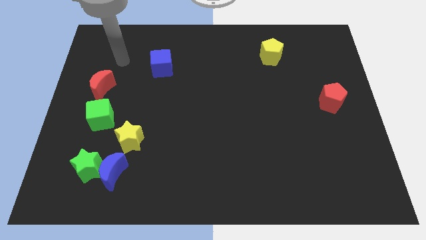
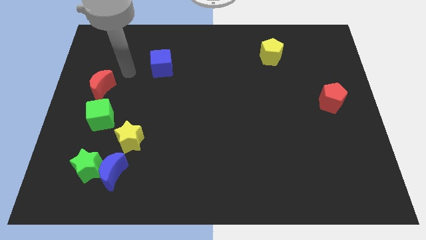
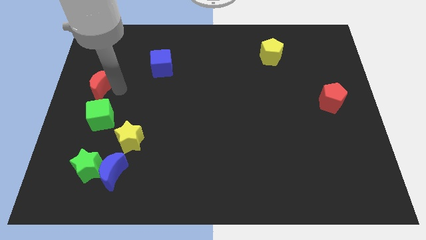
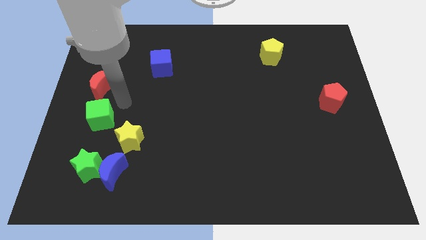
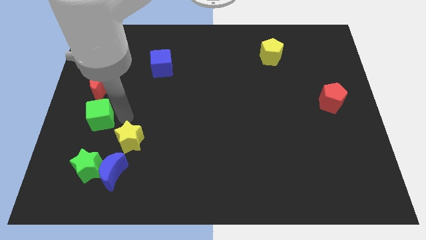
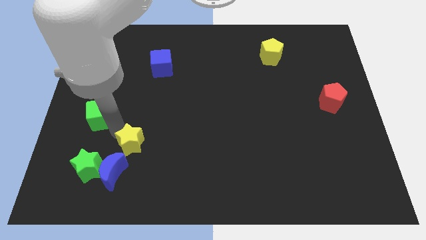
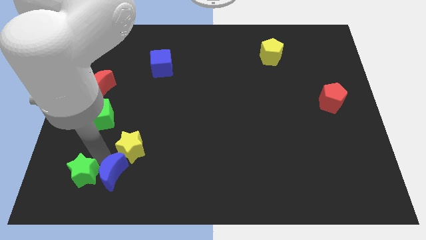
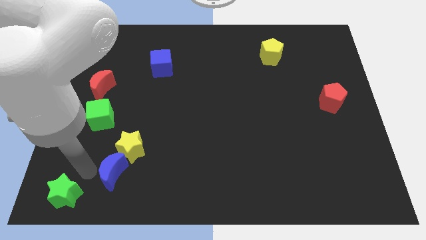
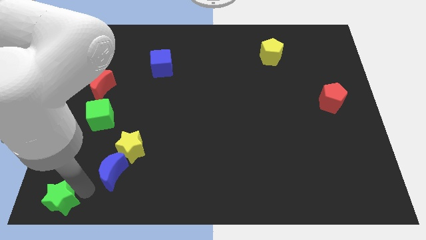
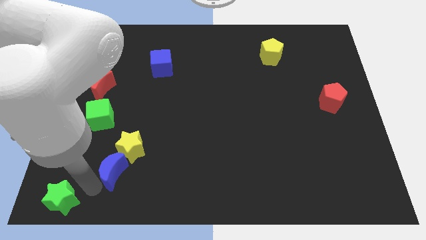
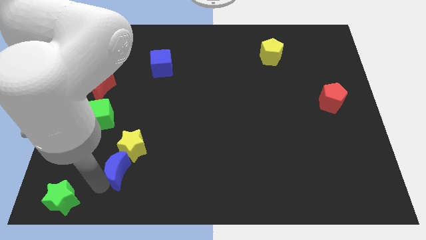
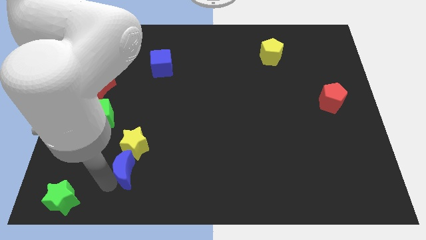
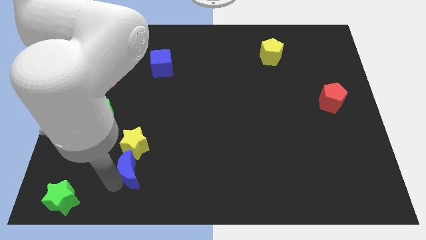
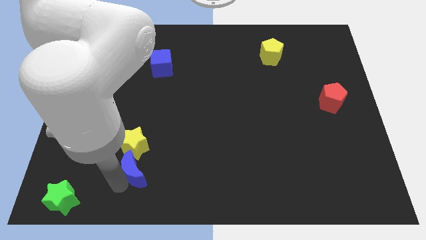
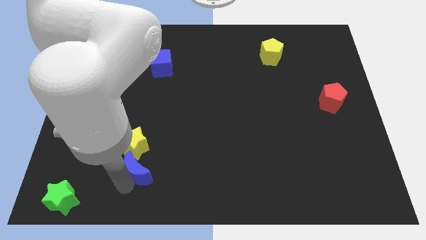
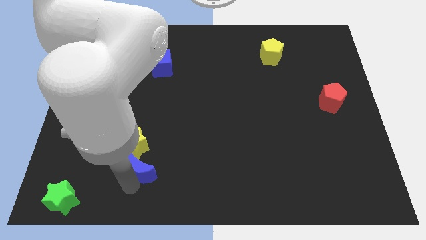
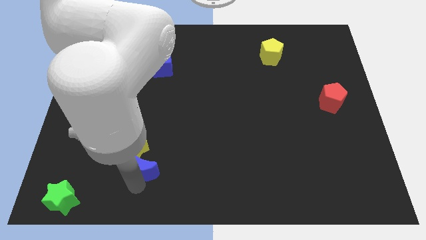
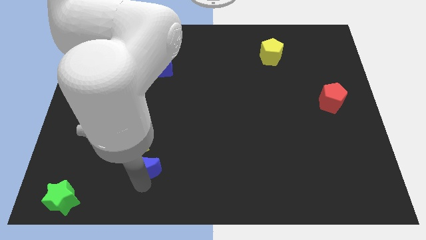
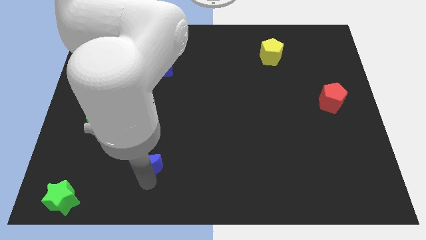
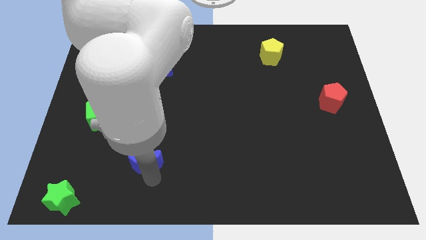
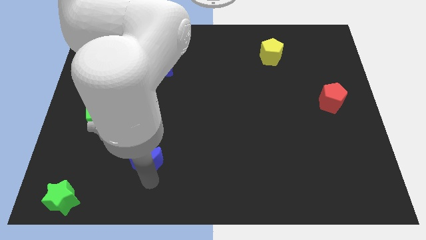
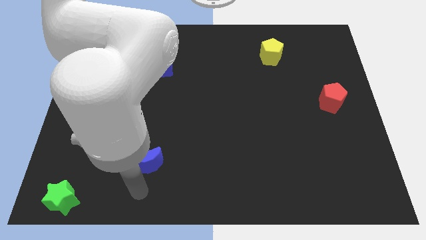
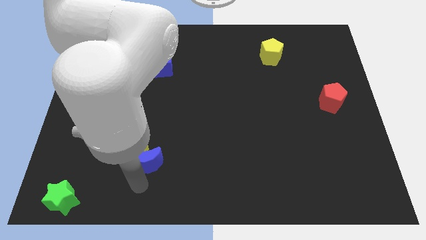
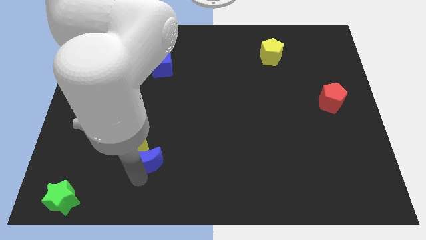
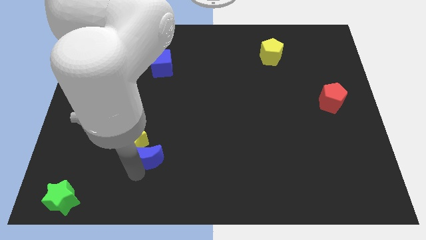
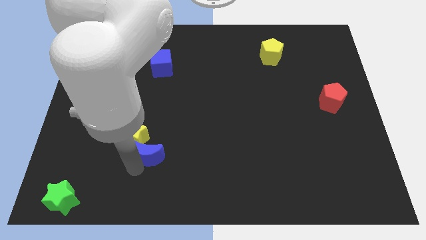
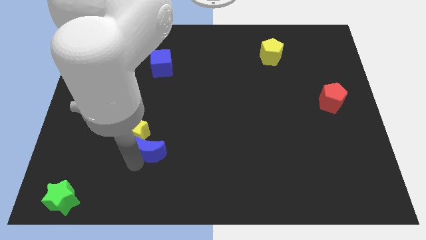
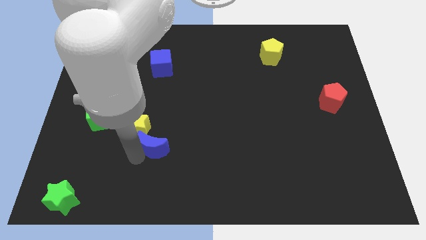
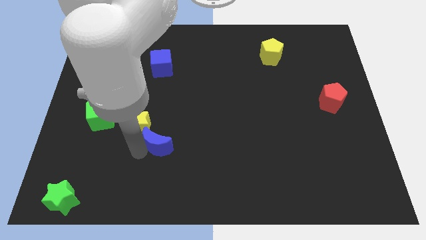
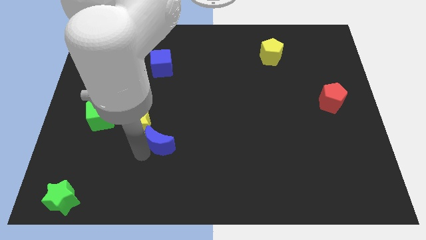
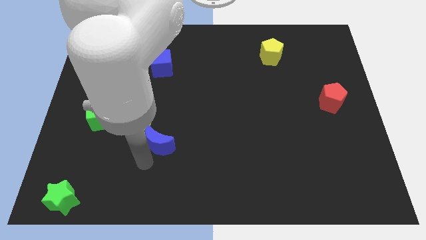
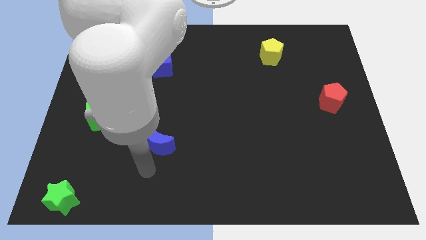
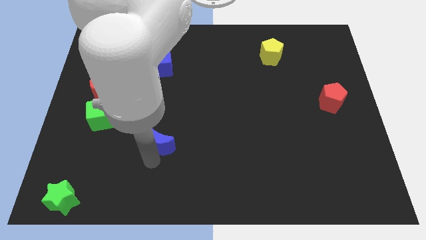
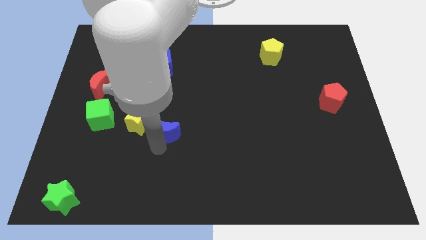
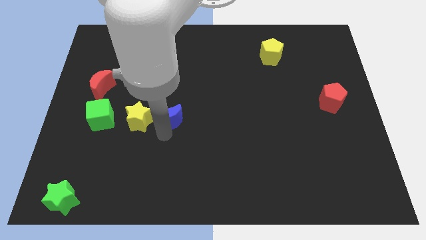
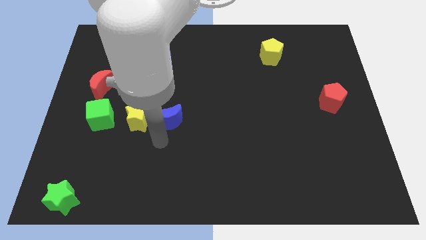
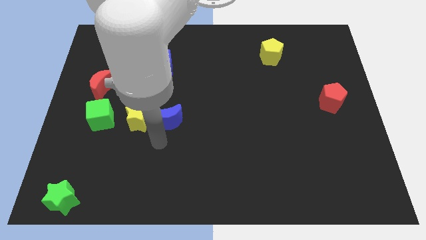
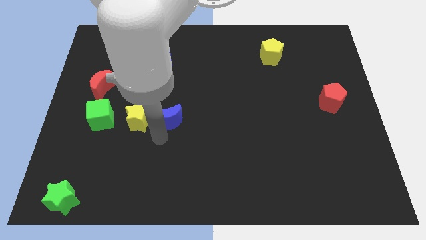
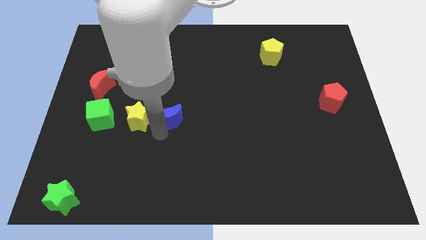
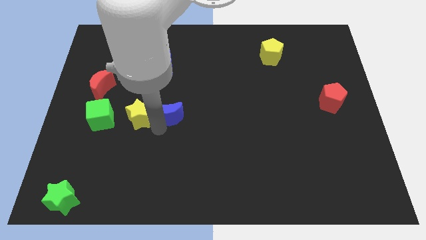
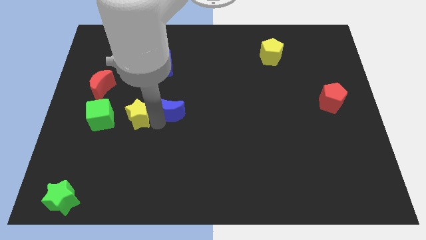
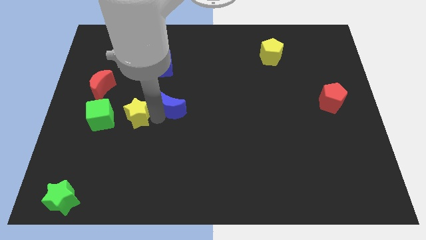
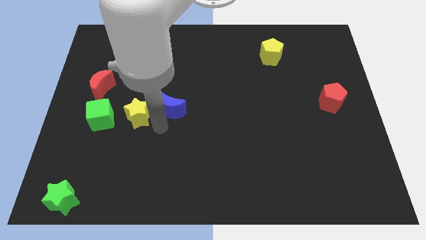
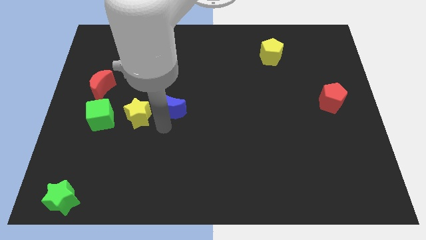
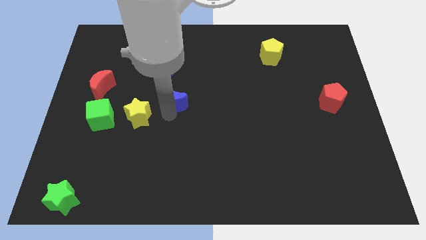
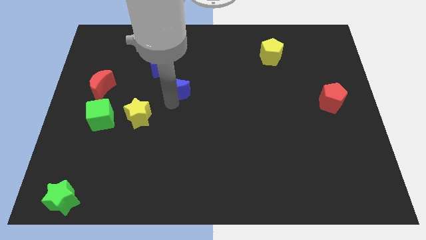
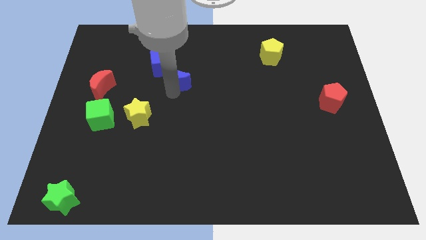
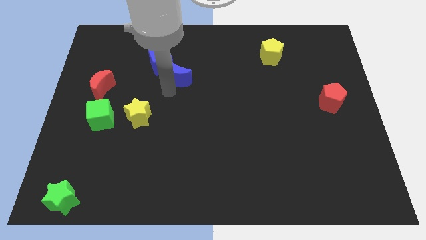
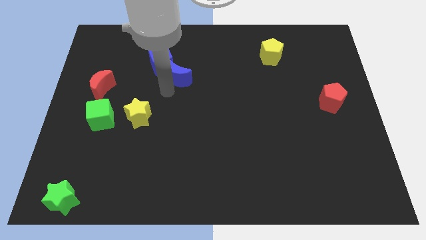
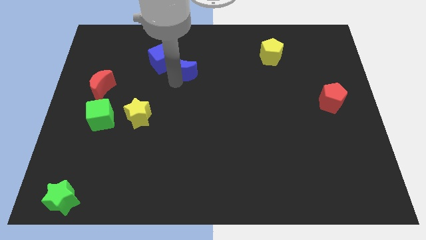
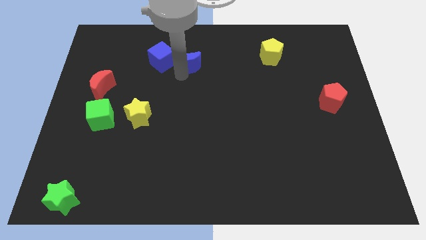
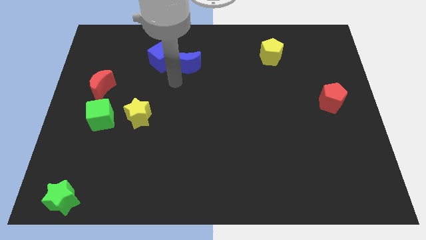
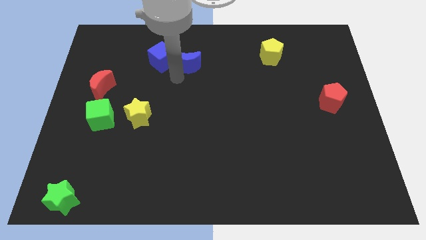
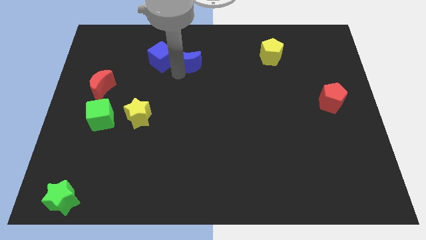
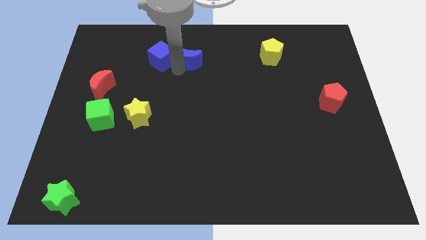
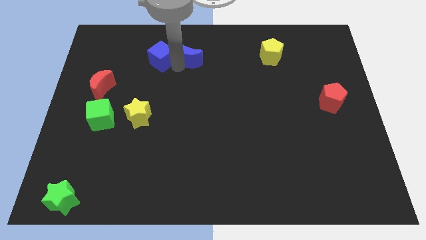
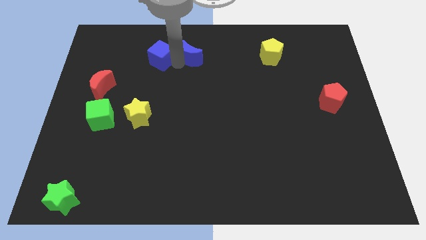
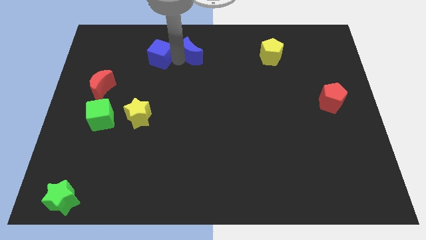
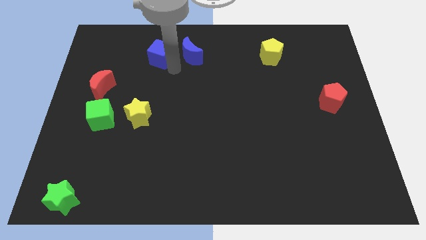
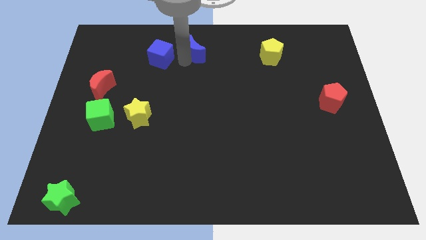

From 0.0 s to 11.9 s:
put the blue moon to the top side
